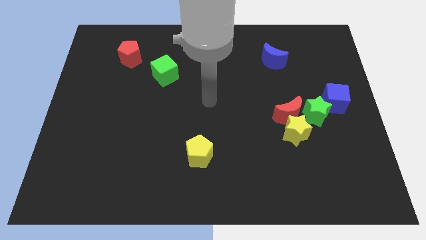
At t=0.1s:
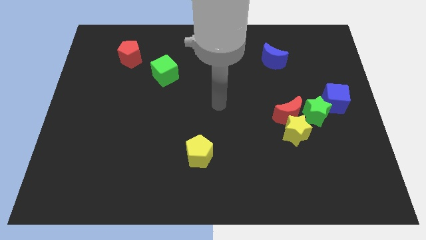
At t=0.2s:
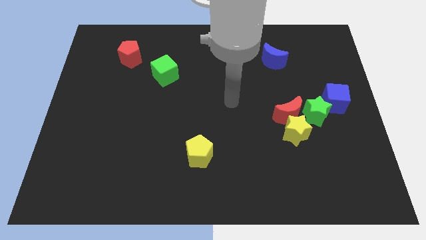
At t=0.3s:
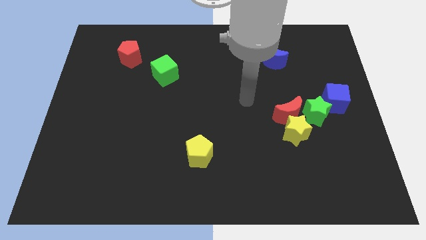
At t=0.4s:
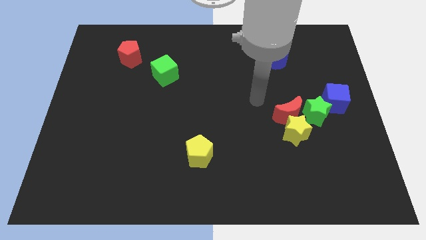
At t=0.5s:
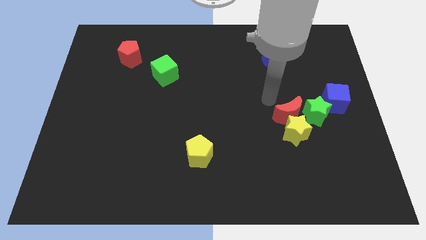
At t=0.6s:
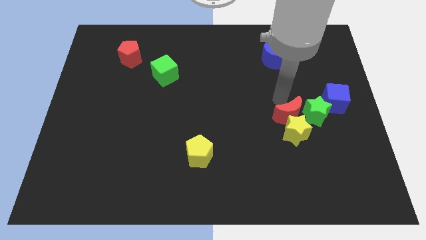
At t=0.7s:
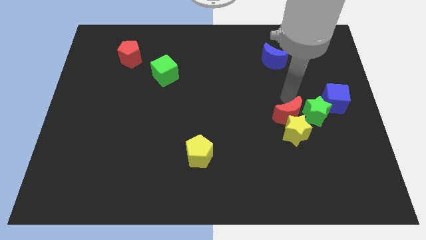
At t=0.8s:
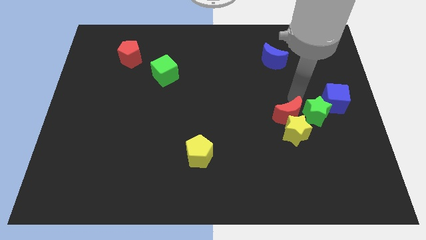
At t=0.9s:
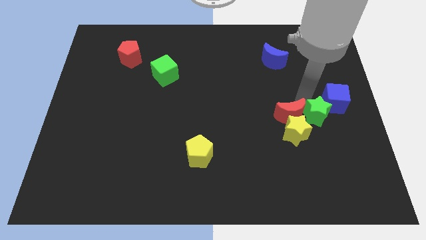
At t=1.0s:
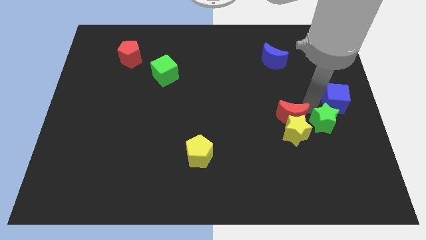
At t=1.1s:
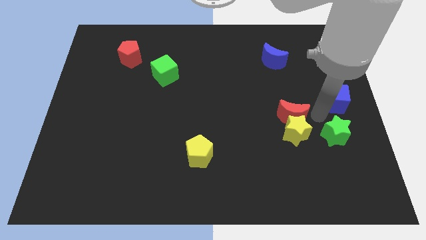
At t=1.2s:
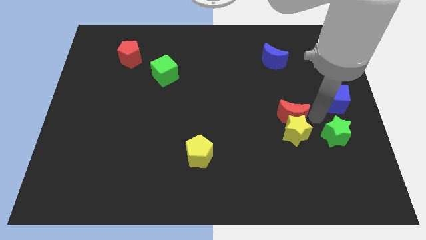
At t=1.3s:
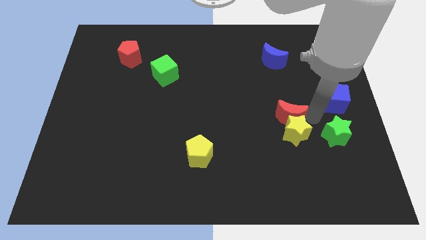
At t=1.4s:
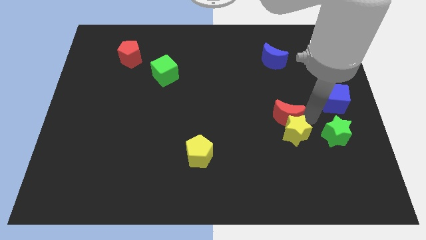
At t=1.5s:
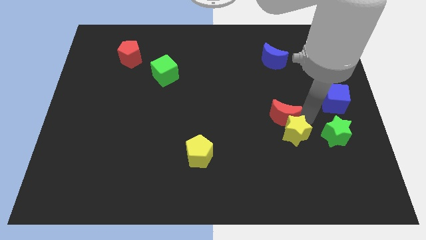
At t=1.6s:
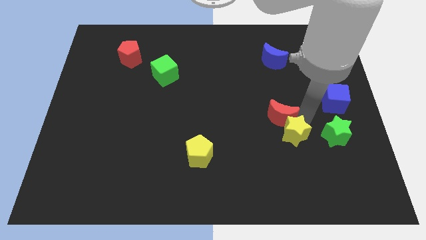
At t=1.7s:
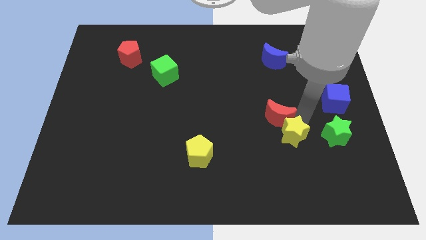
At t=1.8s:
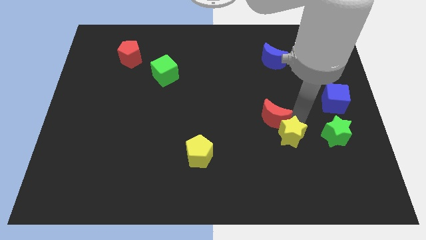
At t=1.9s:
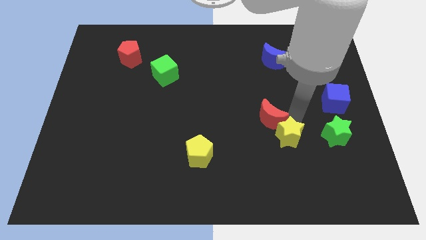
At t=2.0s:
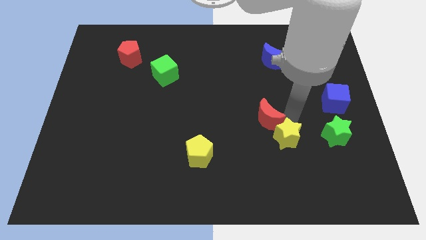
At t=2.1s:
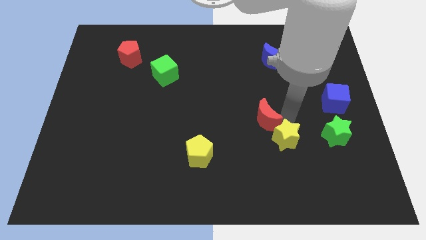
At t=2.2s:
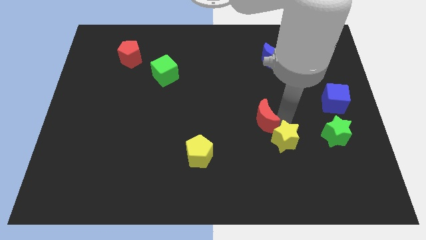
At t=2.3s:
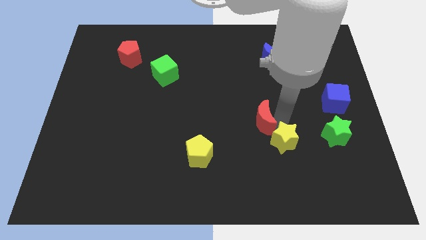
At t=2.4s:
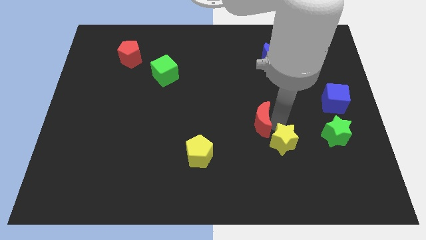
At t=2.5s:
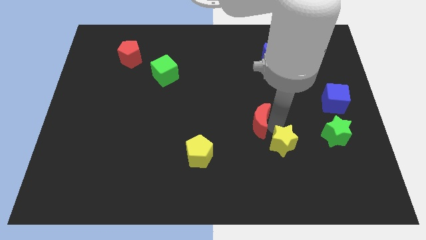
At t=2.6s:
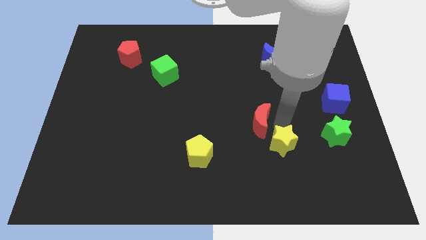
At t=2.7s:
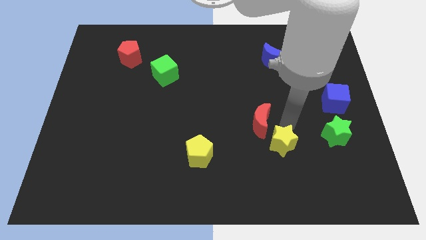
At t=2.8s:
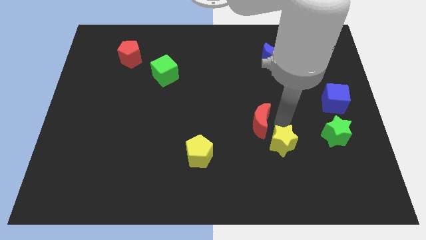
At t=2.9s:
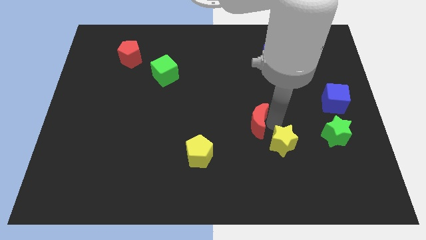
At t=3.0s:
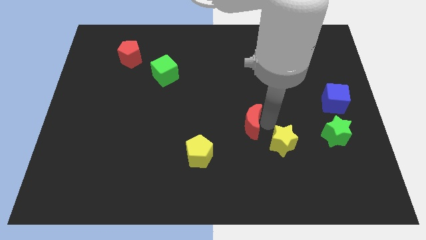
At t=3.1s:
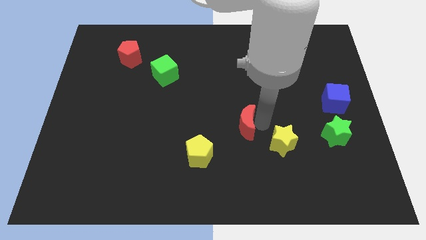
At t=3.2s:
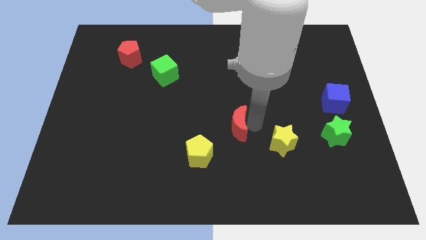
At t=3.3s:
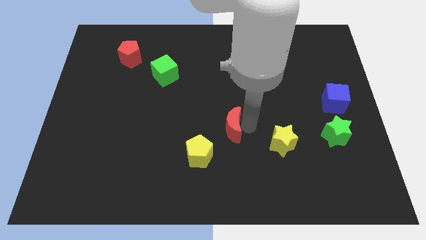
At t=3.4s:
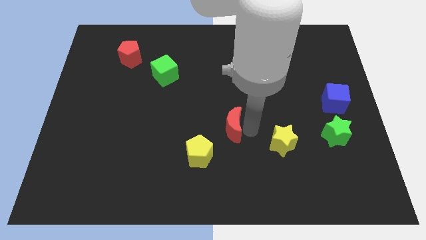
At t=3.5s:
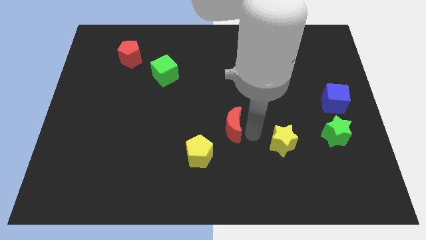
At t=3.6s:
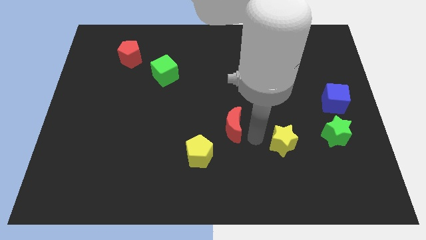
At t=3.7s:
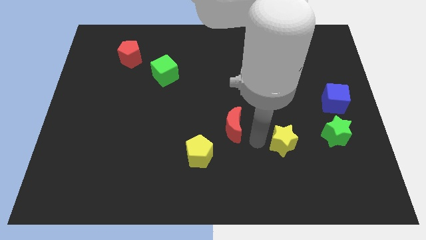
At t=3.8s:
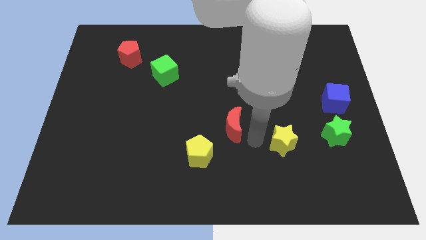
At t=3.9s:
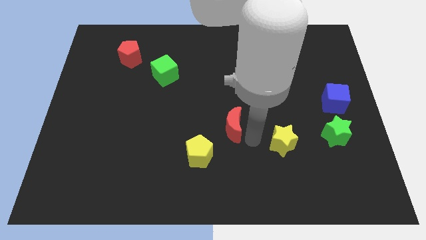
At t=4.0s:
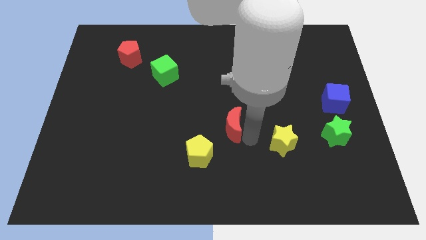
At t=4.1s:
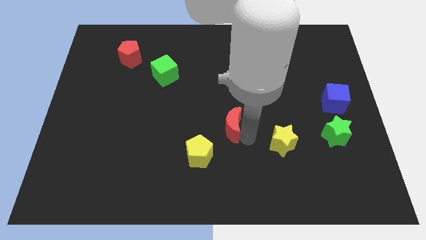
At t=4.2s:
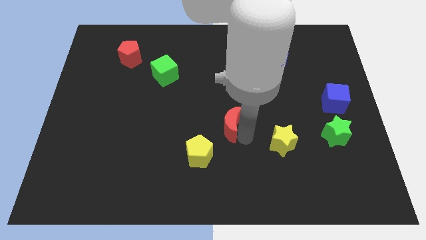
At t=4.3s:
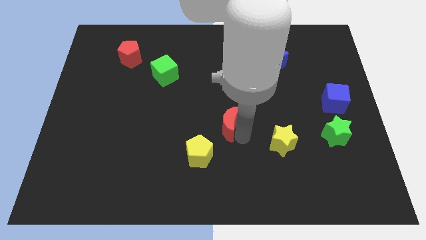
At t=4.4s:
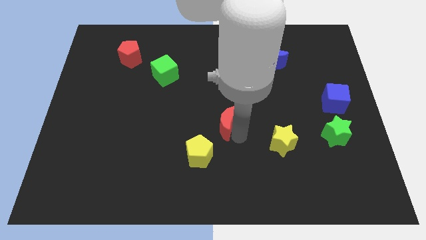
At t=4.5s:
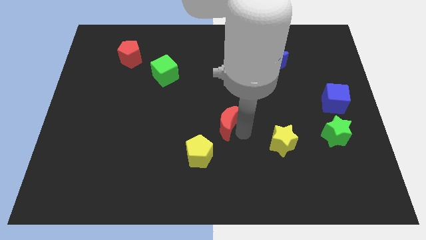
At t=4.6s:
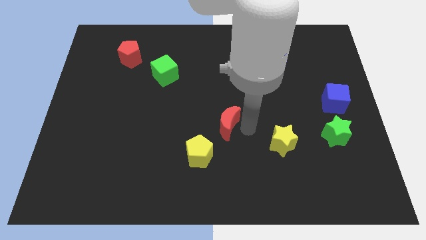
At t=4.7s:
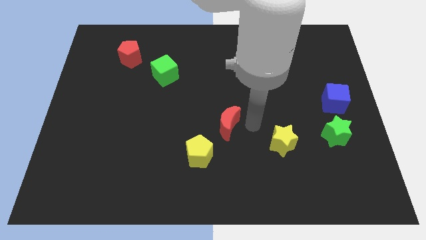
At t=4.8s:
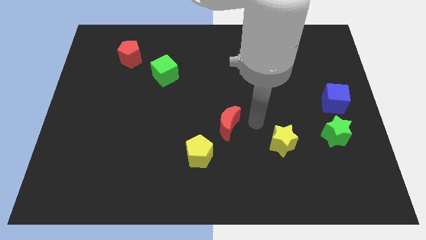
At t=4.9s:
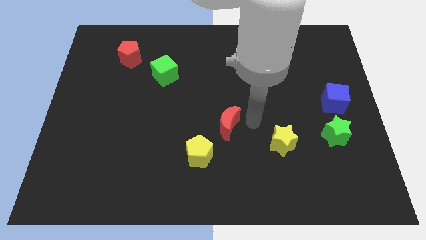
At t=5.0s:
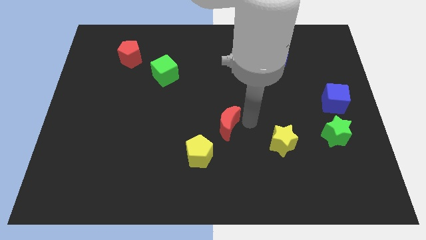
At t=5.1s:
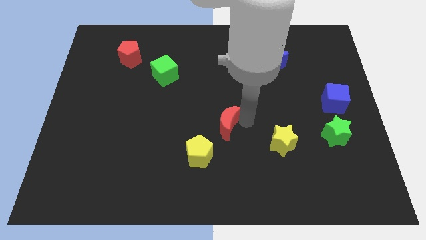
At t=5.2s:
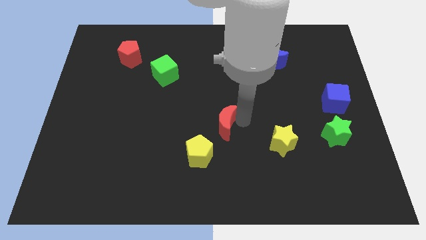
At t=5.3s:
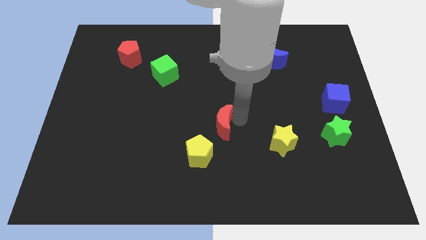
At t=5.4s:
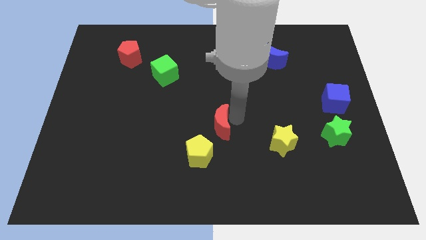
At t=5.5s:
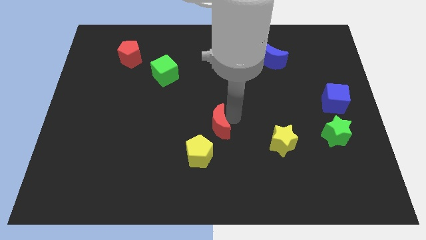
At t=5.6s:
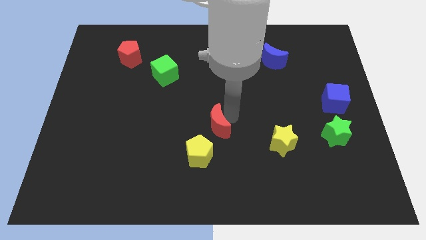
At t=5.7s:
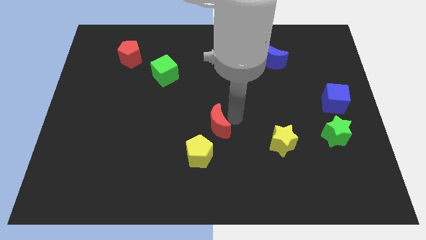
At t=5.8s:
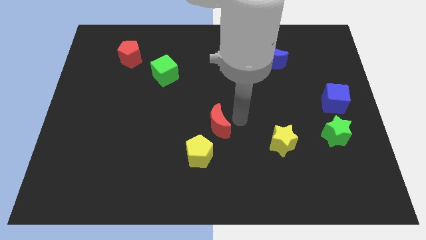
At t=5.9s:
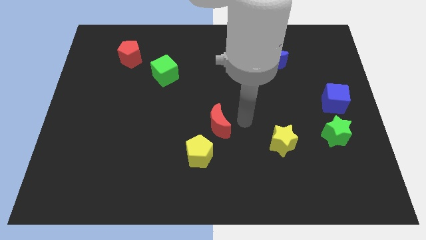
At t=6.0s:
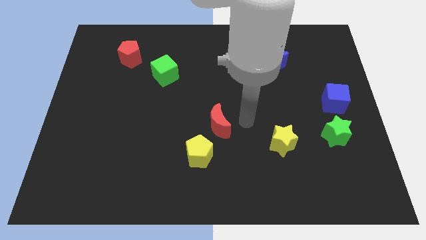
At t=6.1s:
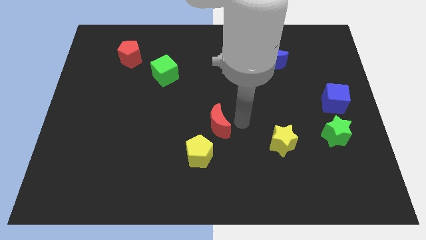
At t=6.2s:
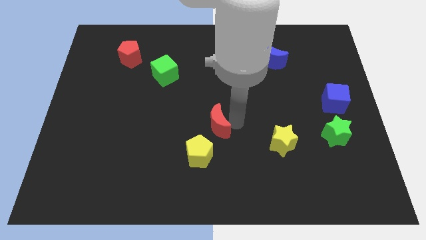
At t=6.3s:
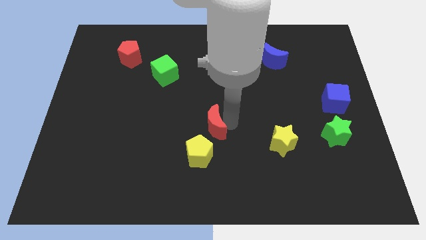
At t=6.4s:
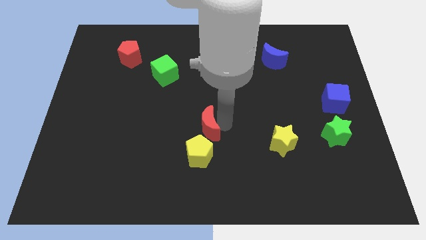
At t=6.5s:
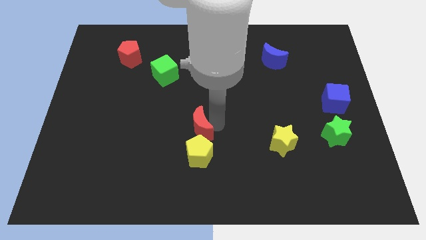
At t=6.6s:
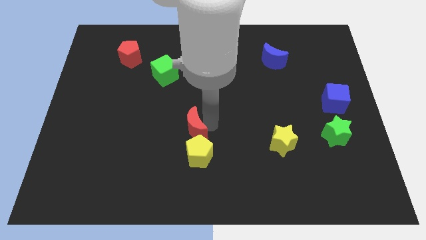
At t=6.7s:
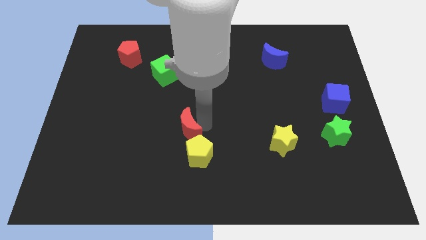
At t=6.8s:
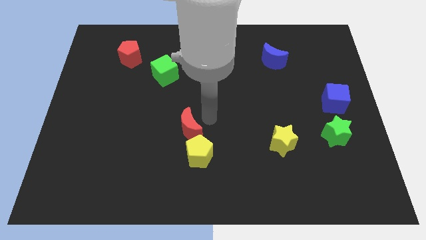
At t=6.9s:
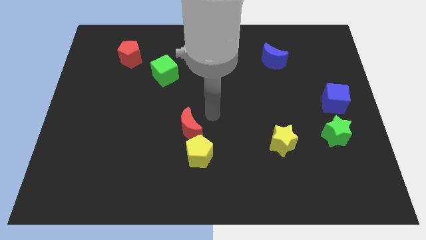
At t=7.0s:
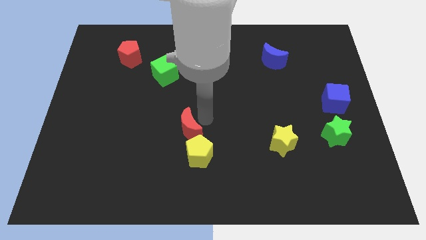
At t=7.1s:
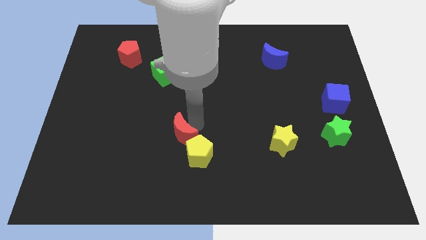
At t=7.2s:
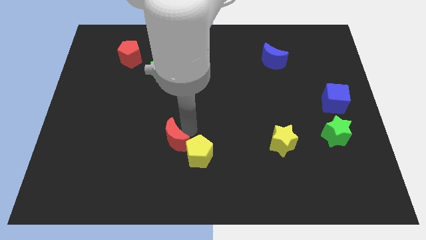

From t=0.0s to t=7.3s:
slide the red moon to the left of the yellow pentagon

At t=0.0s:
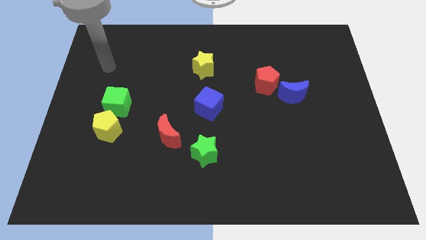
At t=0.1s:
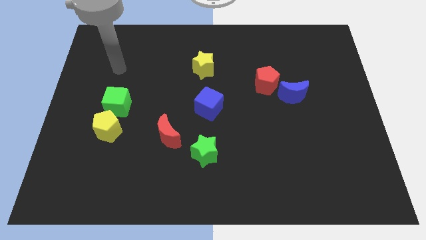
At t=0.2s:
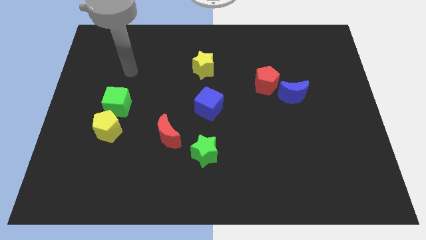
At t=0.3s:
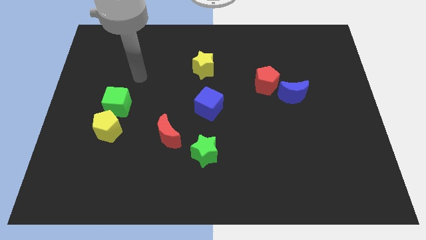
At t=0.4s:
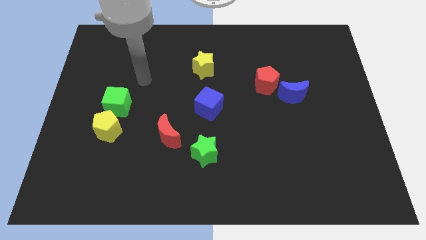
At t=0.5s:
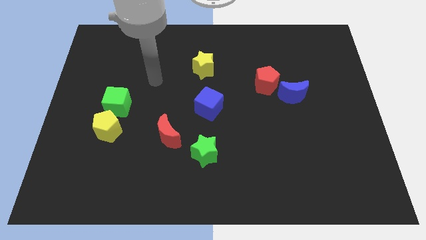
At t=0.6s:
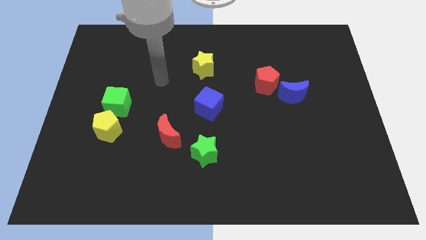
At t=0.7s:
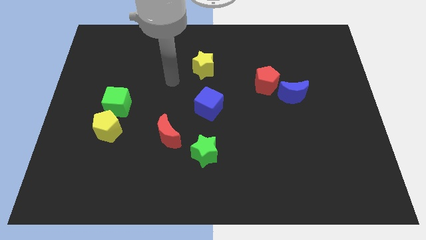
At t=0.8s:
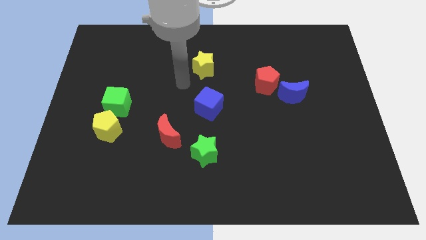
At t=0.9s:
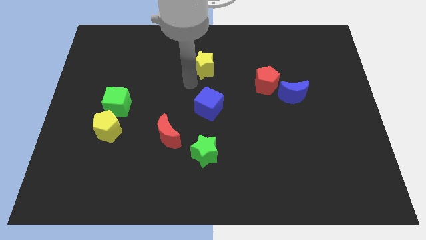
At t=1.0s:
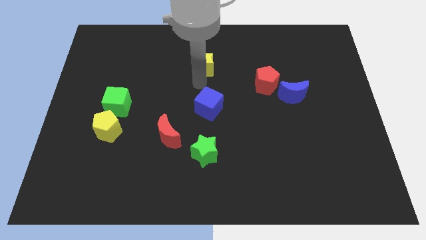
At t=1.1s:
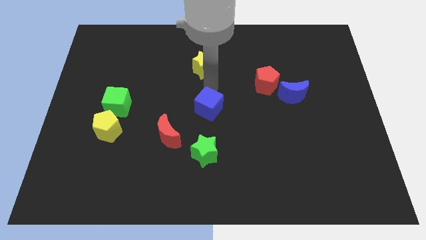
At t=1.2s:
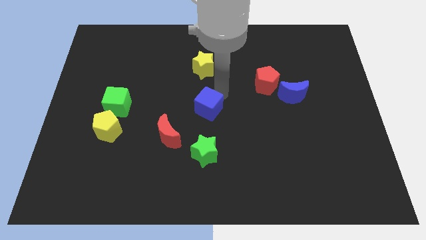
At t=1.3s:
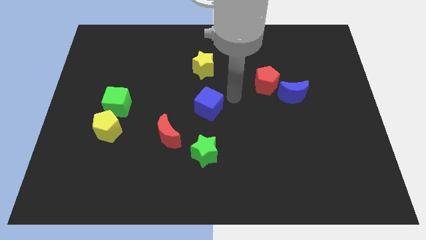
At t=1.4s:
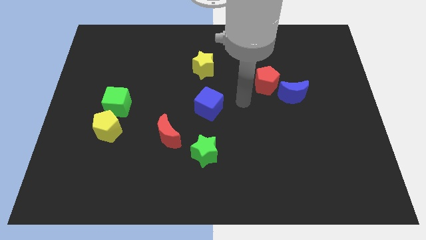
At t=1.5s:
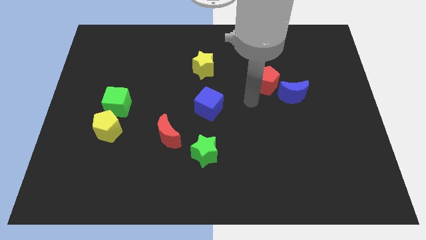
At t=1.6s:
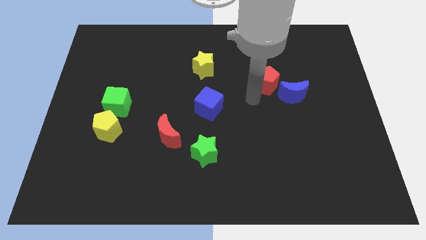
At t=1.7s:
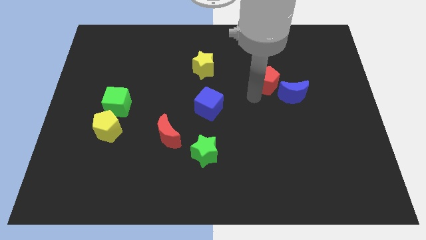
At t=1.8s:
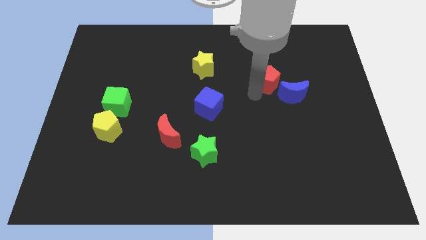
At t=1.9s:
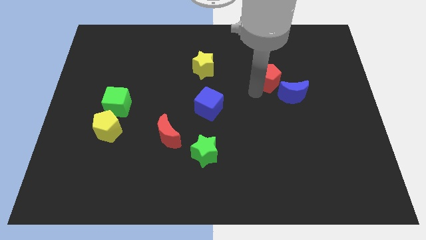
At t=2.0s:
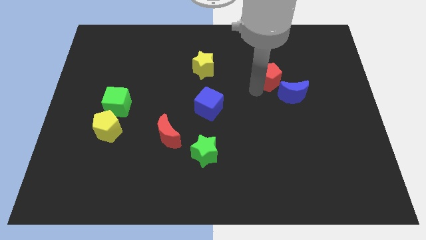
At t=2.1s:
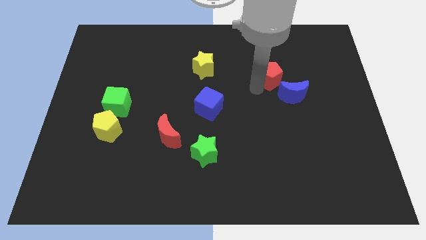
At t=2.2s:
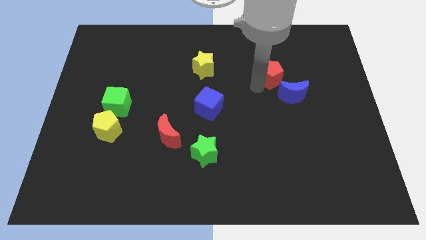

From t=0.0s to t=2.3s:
put the red pentagon above the blue moon
